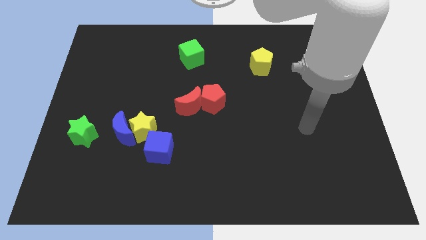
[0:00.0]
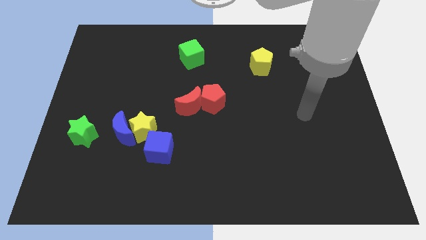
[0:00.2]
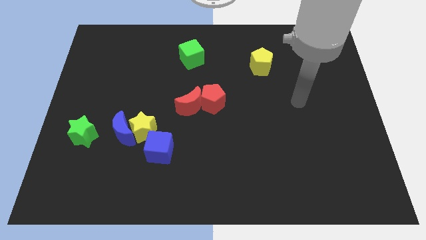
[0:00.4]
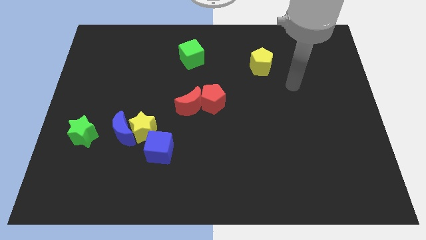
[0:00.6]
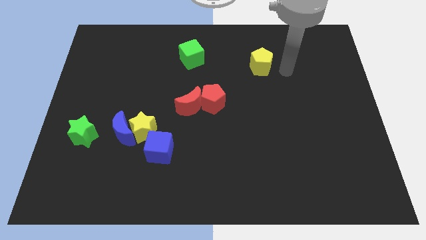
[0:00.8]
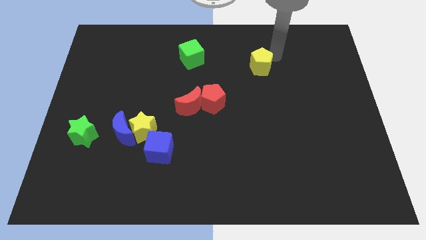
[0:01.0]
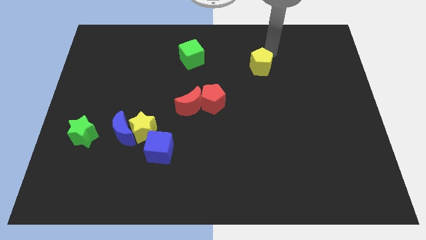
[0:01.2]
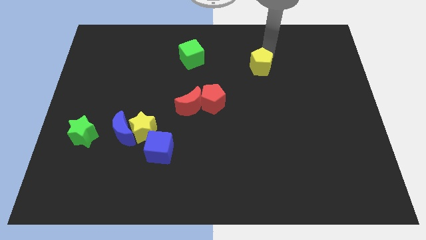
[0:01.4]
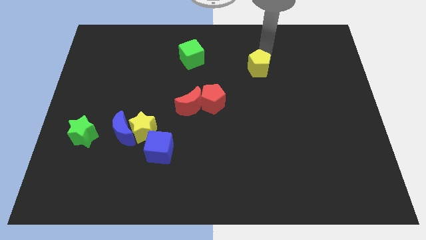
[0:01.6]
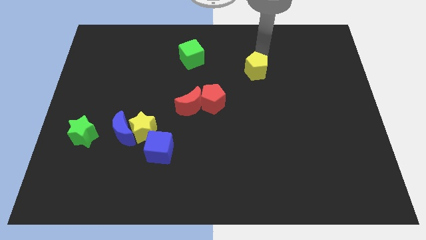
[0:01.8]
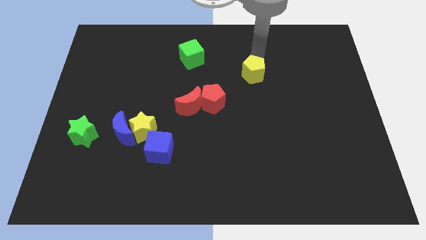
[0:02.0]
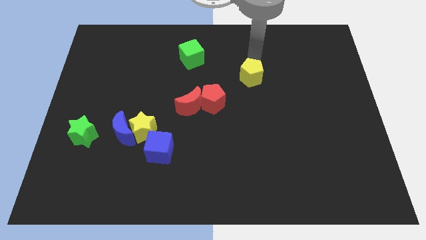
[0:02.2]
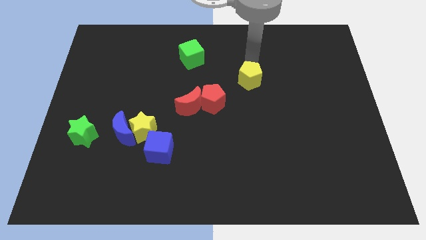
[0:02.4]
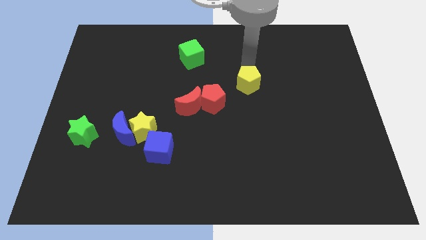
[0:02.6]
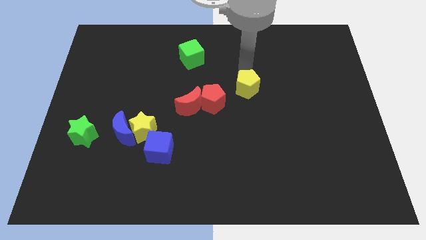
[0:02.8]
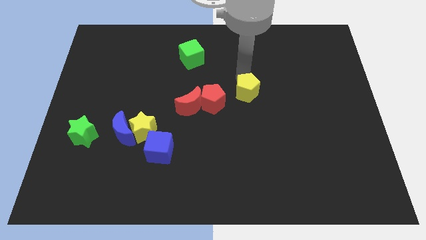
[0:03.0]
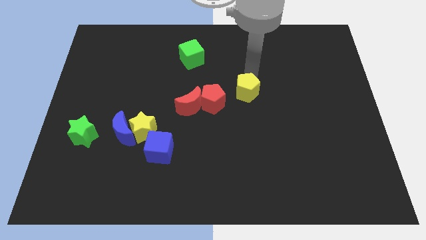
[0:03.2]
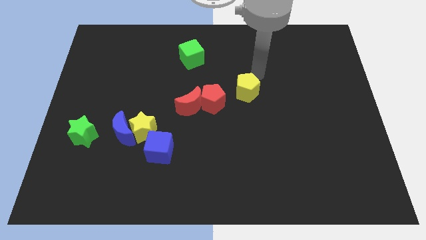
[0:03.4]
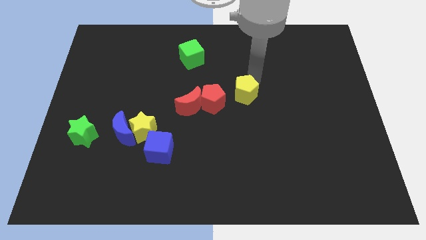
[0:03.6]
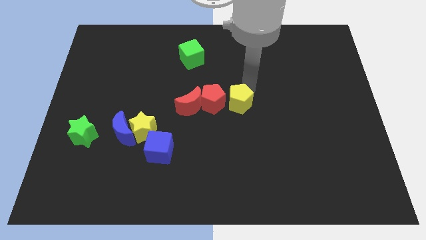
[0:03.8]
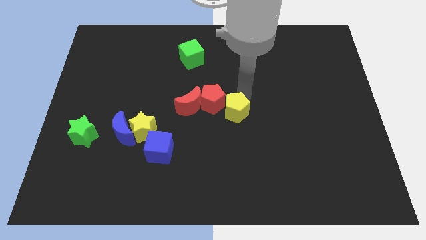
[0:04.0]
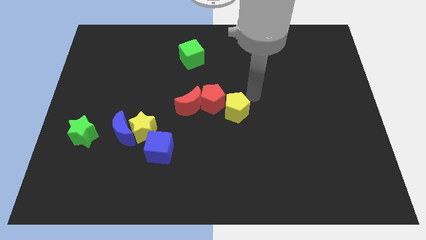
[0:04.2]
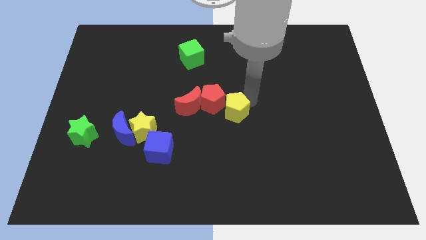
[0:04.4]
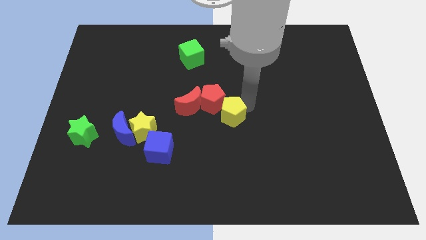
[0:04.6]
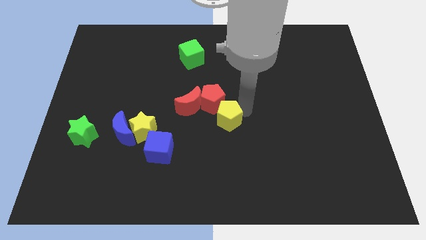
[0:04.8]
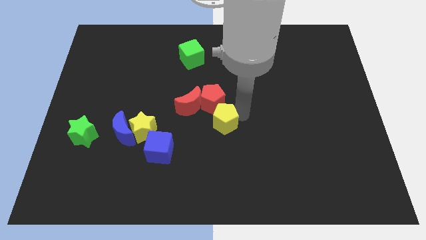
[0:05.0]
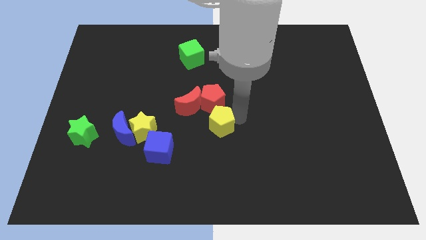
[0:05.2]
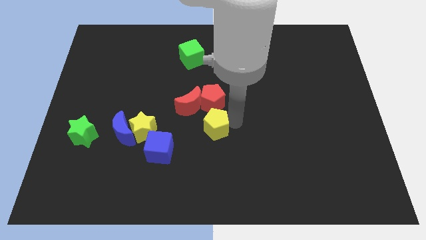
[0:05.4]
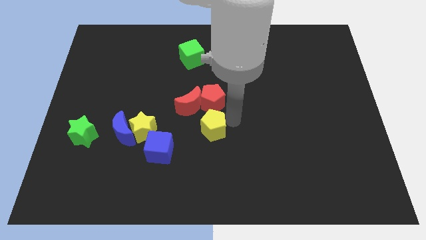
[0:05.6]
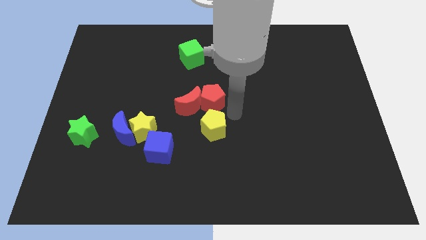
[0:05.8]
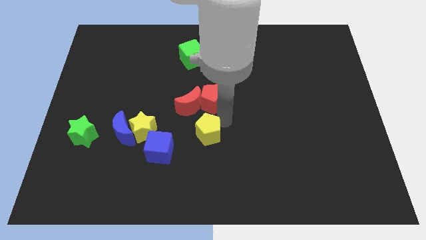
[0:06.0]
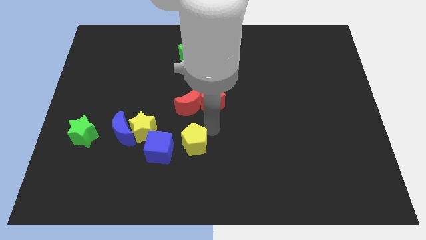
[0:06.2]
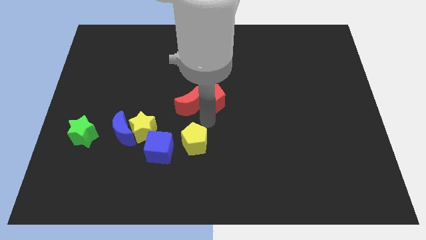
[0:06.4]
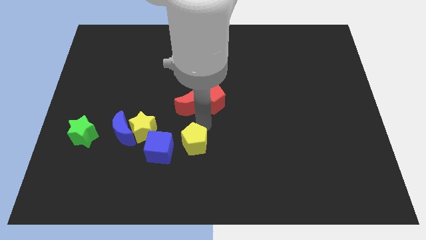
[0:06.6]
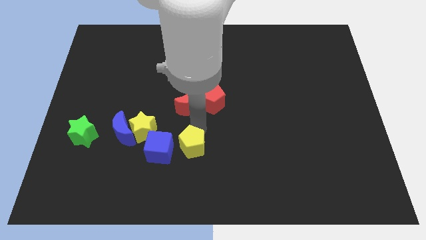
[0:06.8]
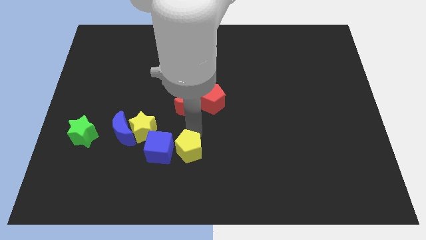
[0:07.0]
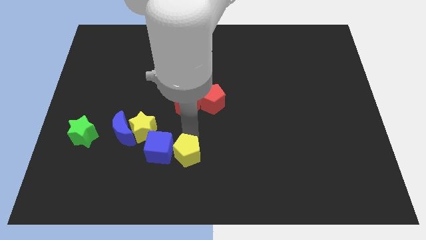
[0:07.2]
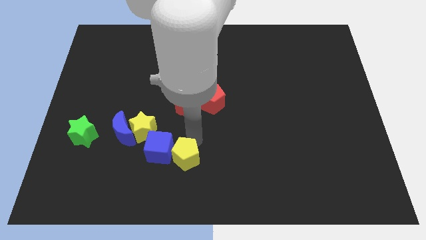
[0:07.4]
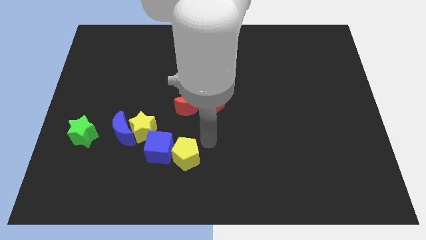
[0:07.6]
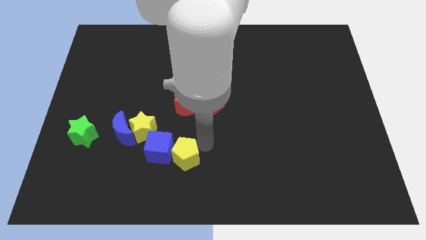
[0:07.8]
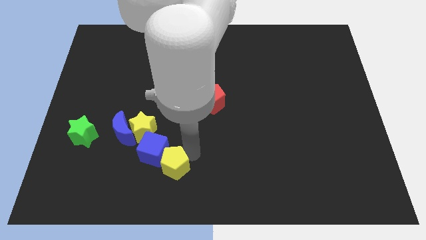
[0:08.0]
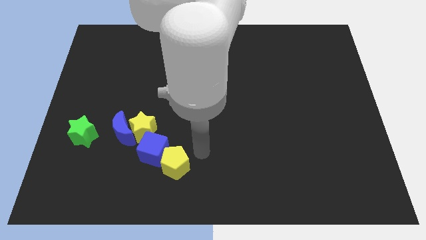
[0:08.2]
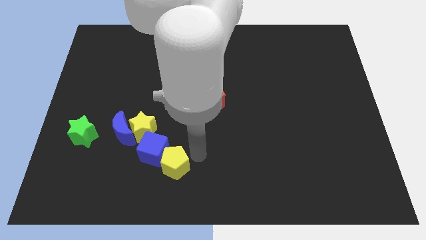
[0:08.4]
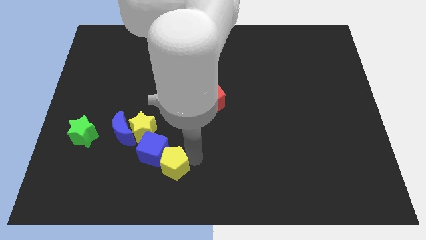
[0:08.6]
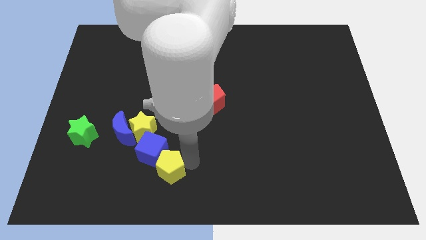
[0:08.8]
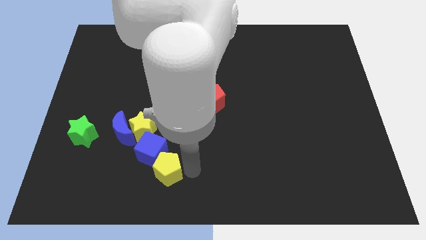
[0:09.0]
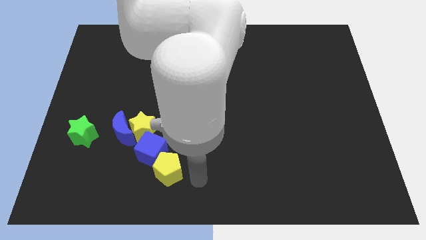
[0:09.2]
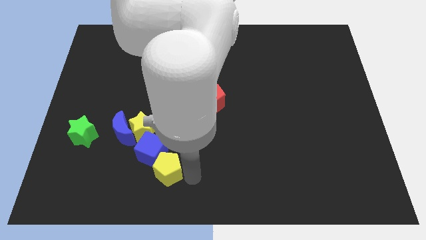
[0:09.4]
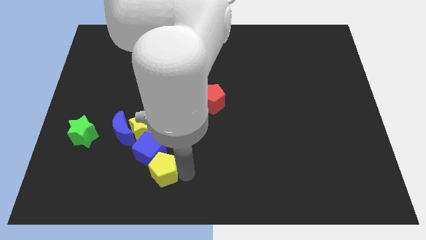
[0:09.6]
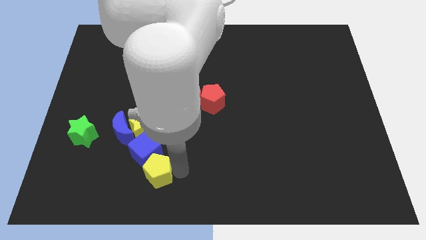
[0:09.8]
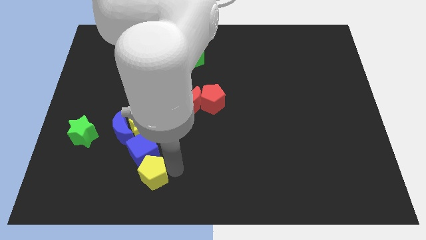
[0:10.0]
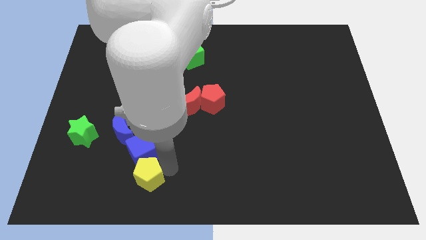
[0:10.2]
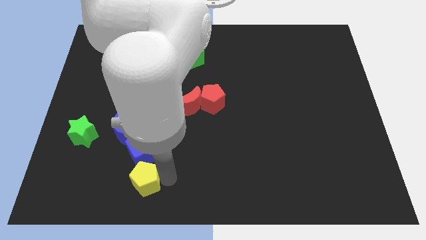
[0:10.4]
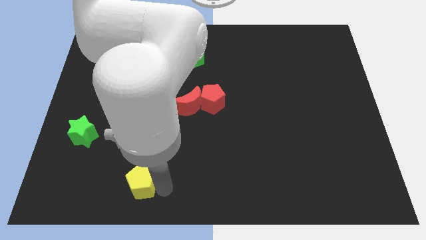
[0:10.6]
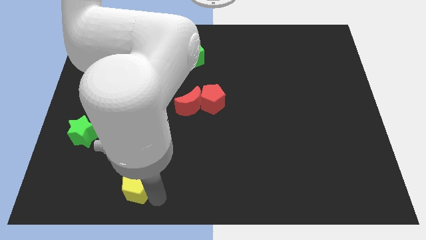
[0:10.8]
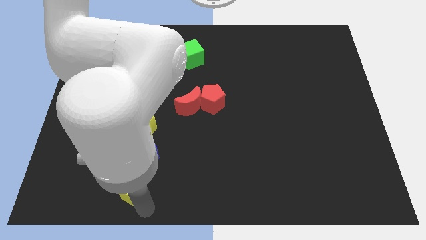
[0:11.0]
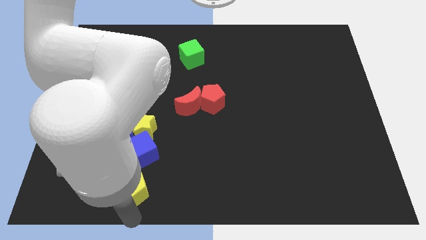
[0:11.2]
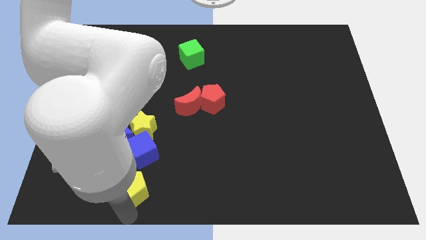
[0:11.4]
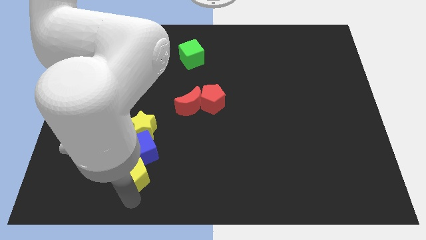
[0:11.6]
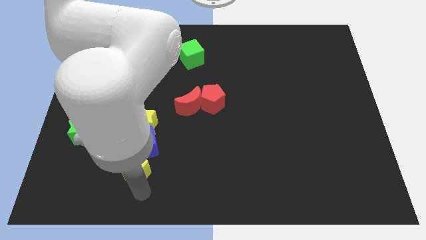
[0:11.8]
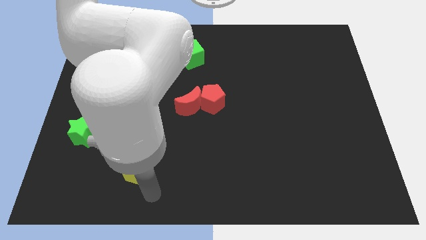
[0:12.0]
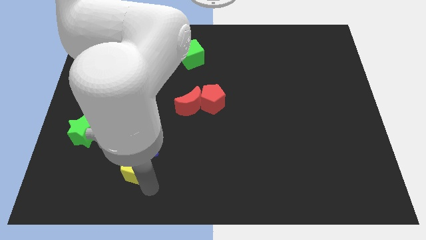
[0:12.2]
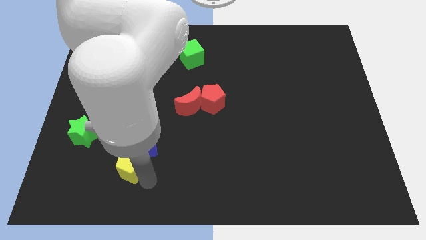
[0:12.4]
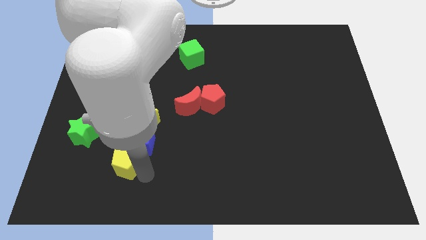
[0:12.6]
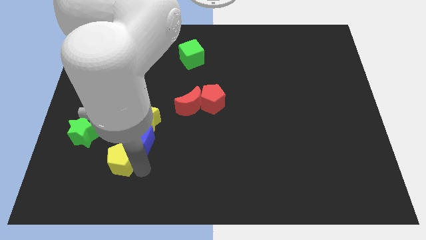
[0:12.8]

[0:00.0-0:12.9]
slide the yellow pentagon to the bottom left of the yellow star

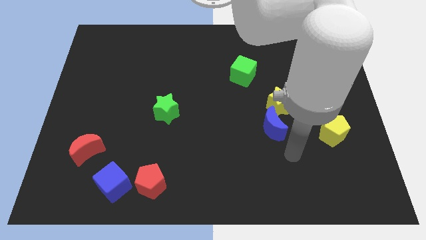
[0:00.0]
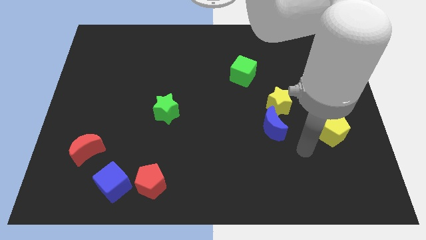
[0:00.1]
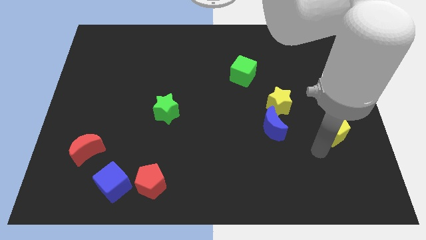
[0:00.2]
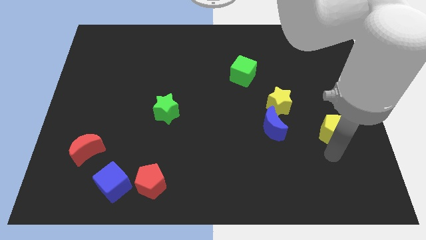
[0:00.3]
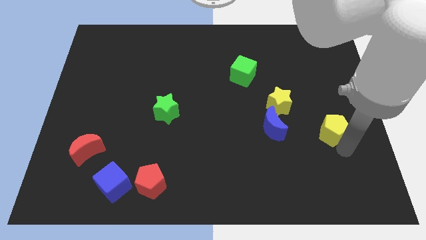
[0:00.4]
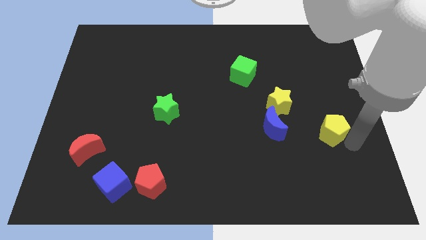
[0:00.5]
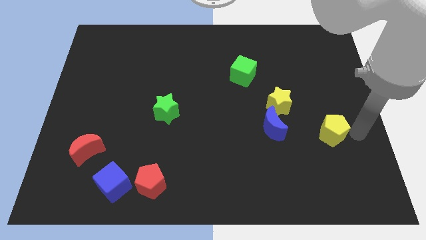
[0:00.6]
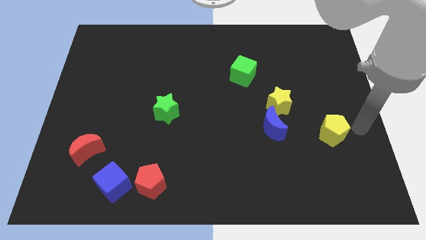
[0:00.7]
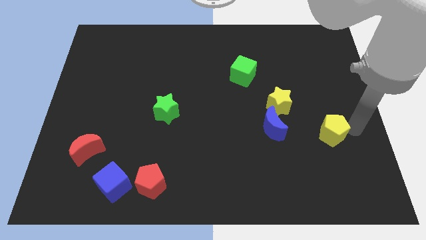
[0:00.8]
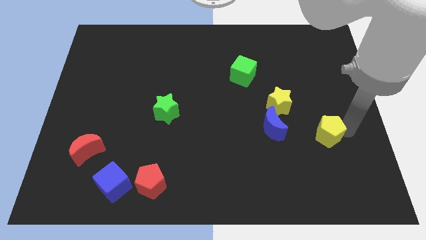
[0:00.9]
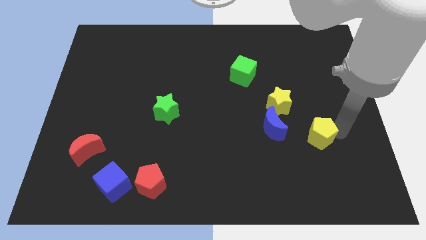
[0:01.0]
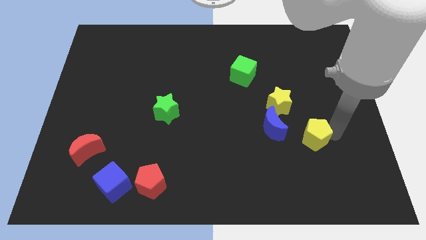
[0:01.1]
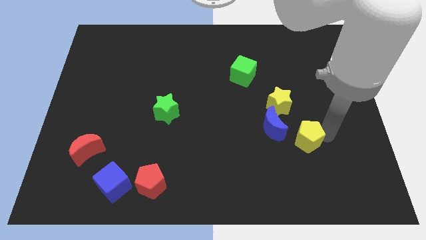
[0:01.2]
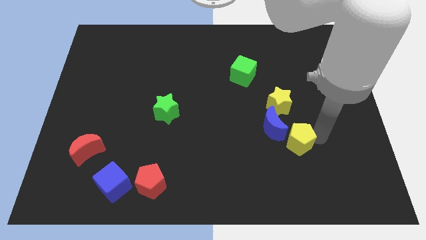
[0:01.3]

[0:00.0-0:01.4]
push the yellow pentagon to the bottom of the yellow star
